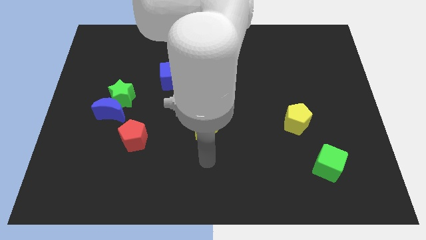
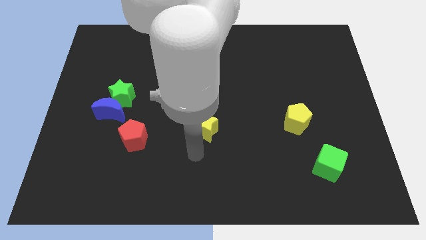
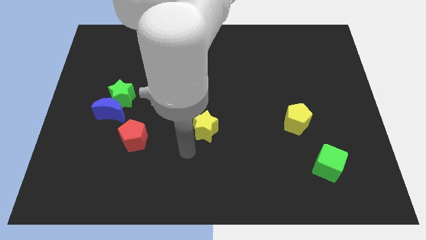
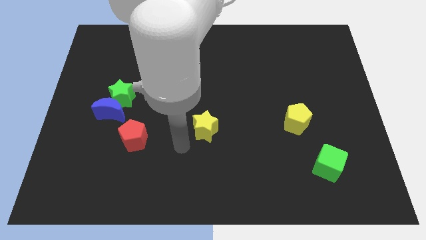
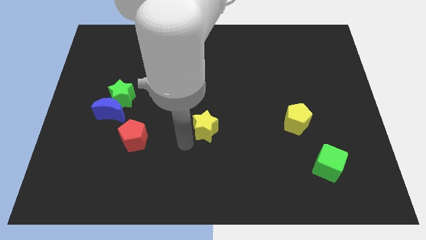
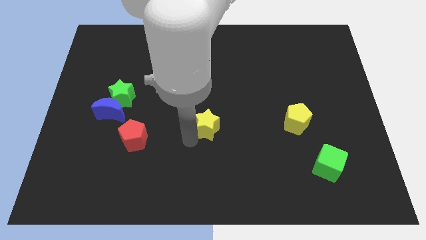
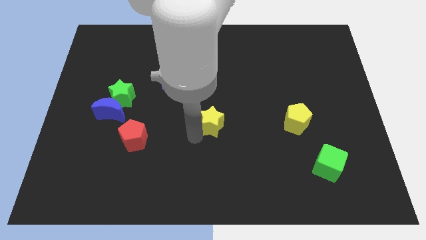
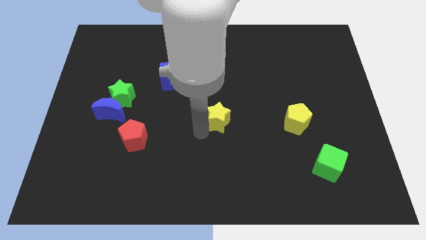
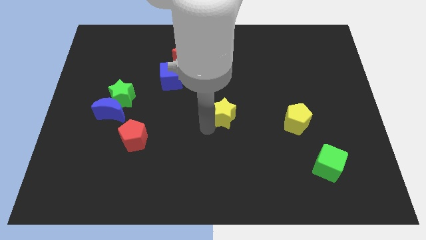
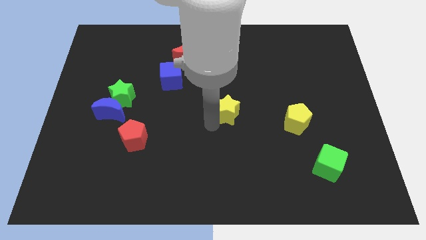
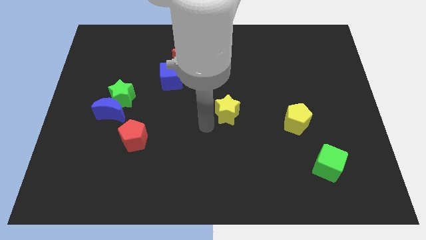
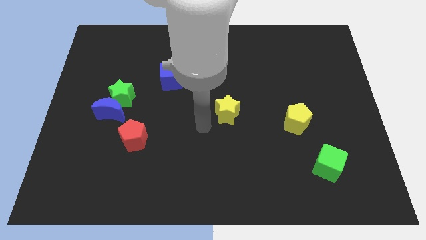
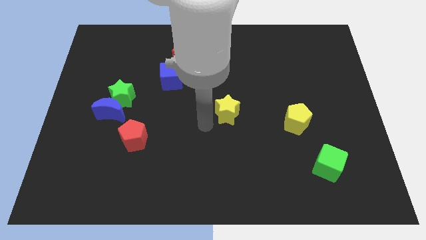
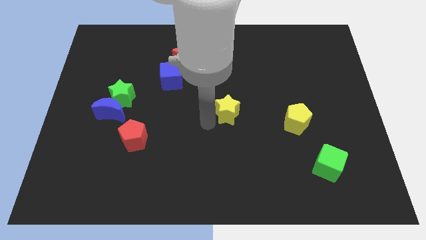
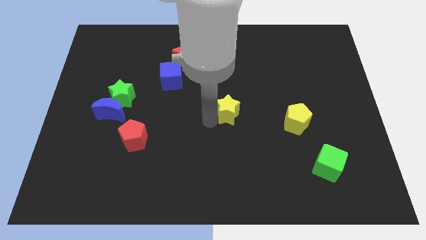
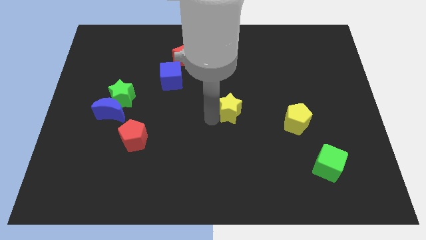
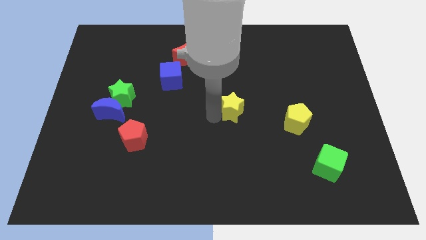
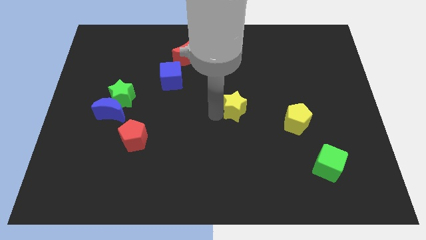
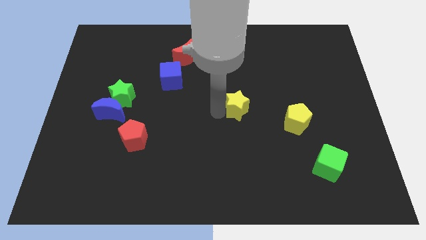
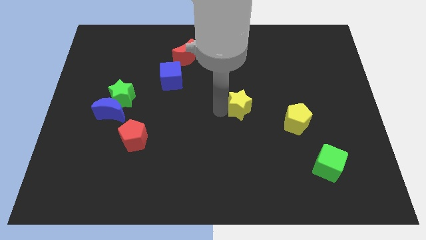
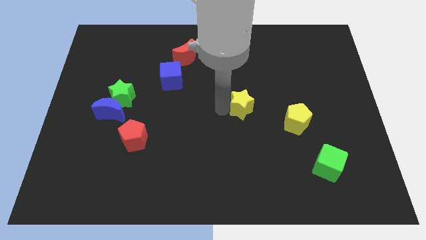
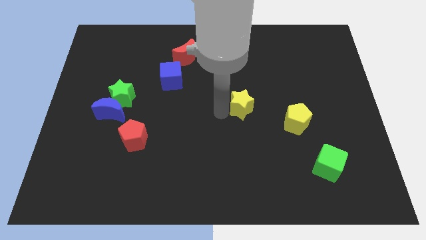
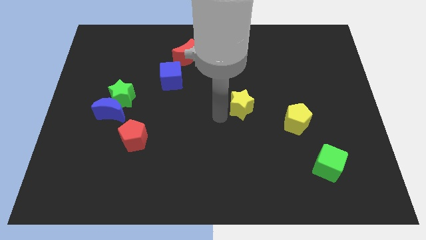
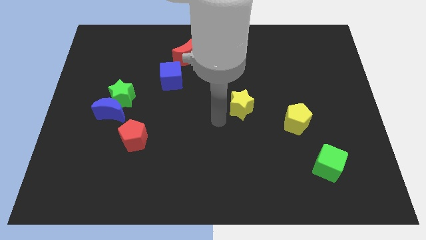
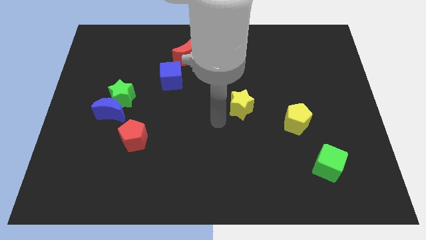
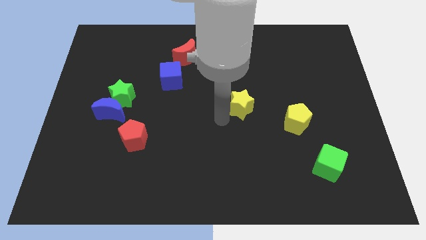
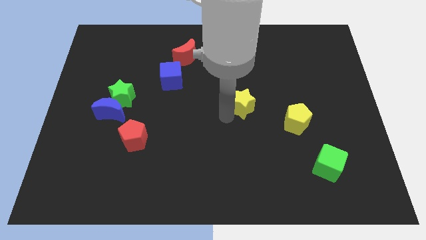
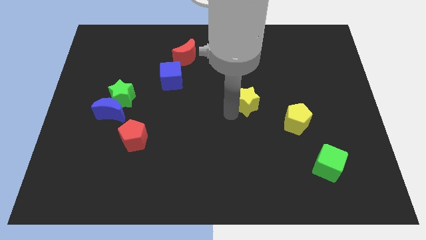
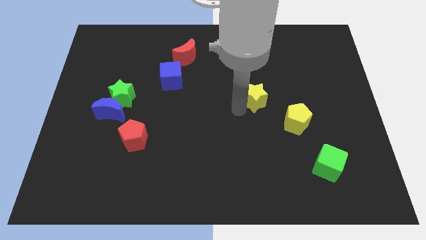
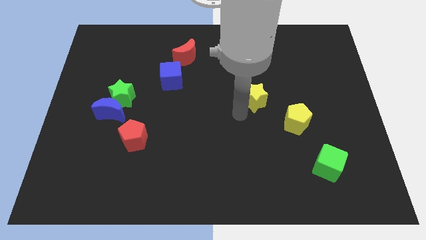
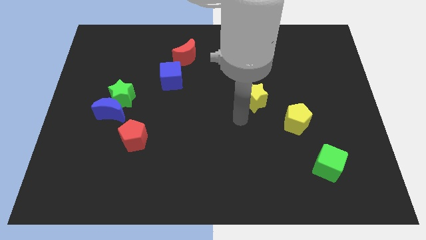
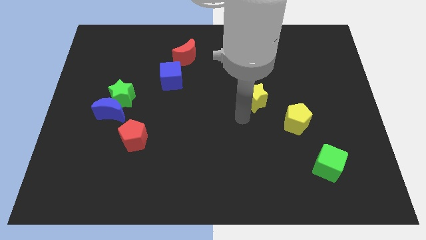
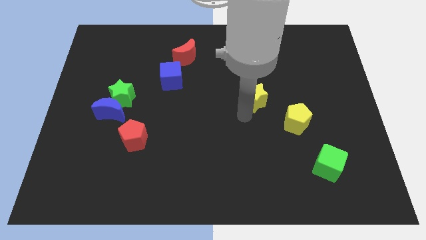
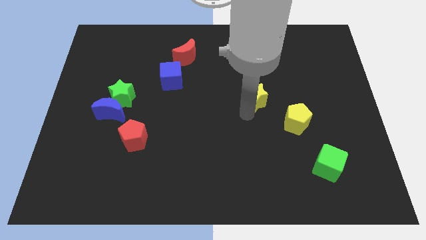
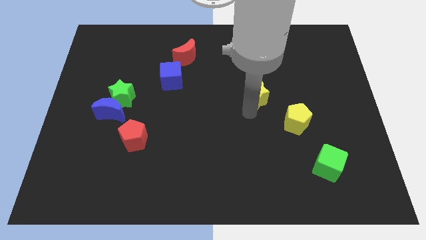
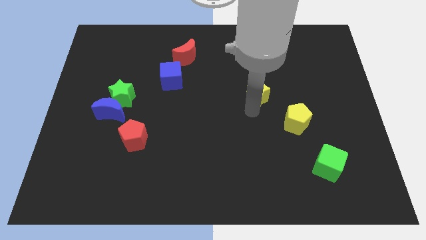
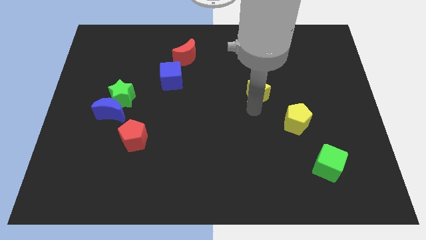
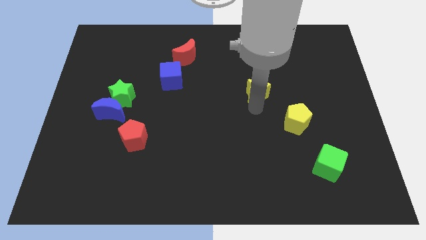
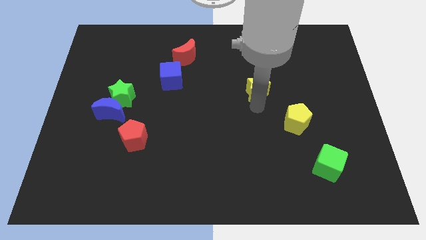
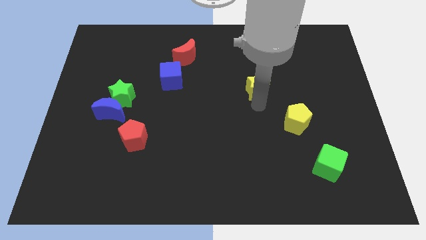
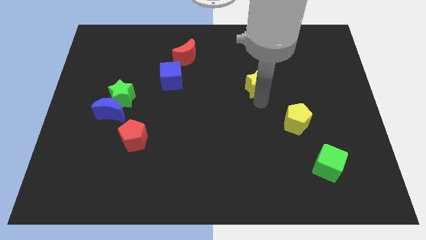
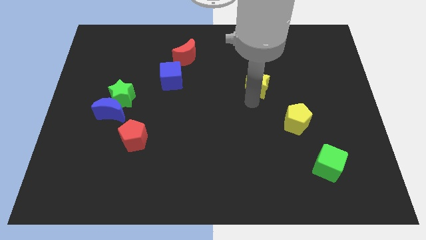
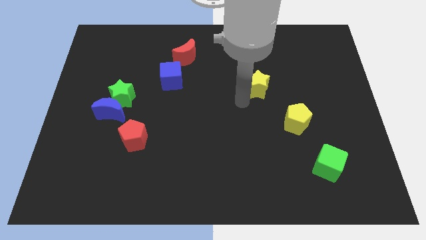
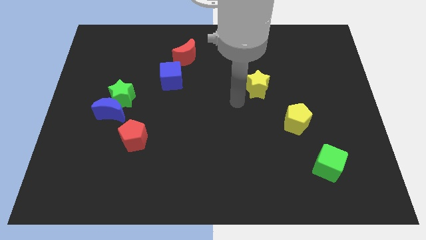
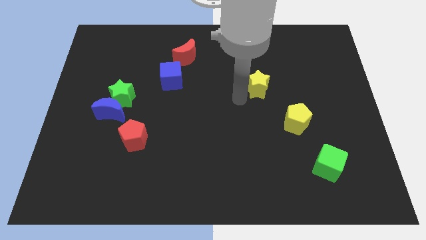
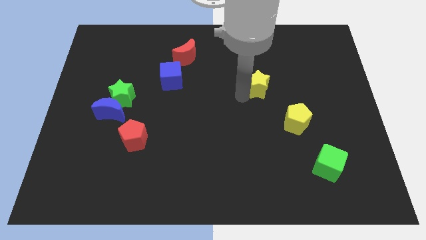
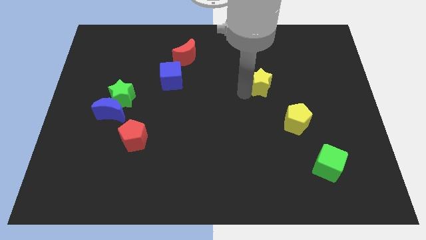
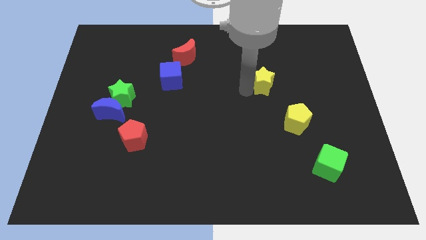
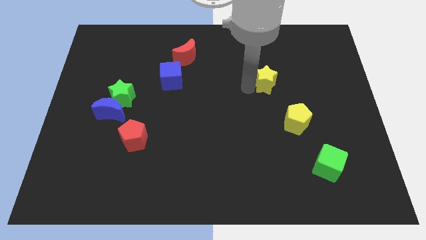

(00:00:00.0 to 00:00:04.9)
move the yellow star upwards and right diagonally

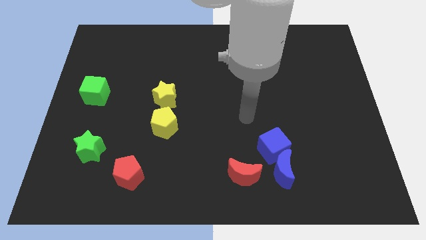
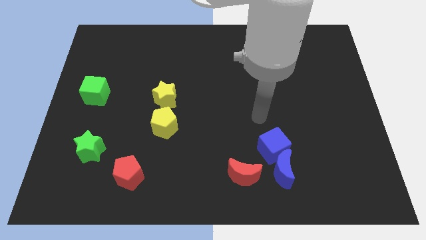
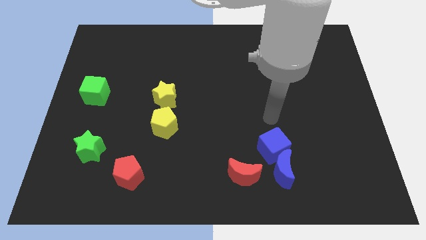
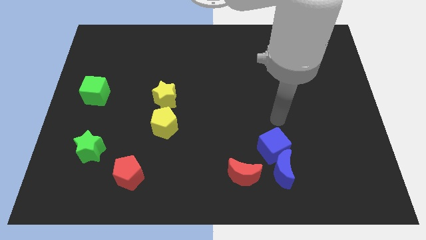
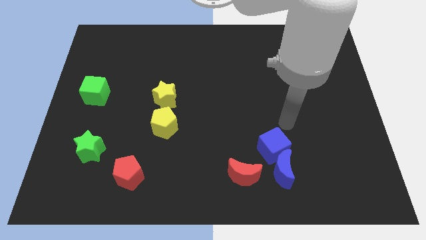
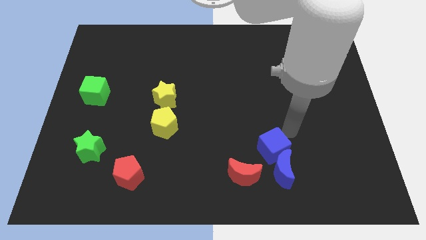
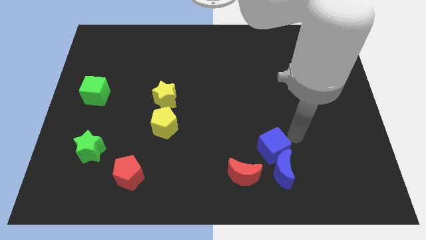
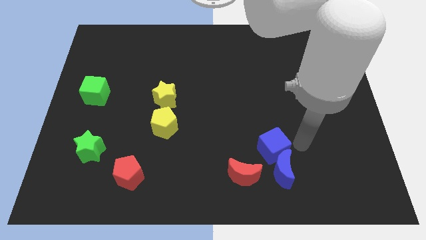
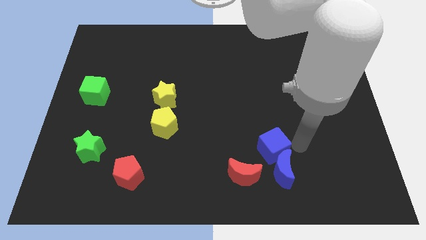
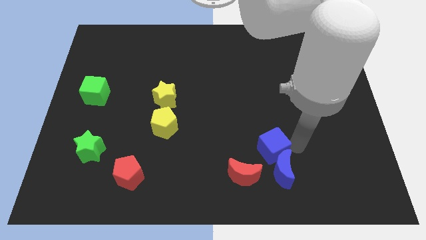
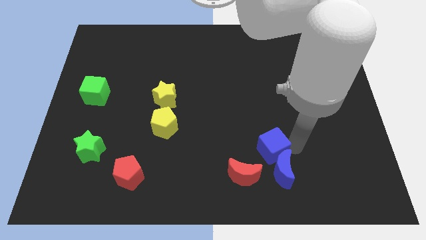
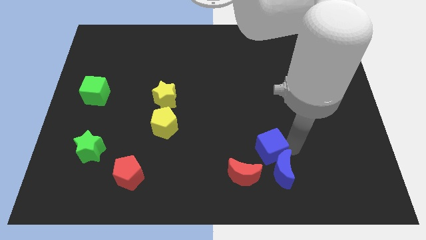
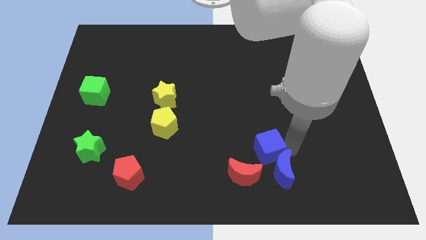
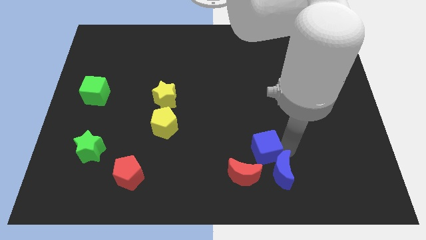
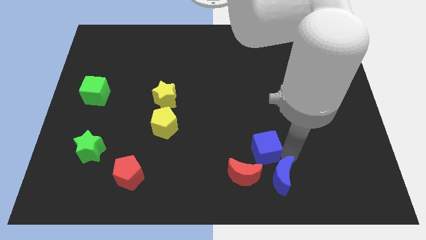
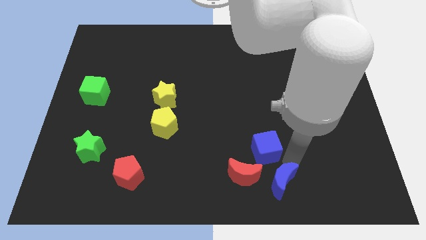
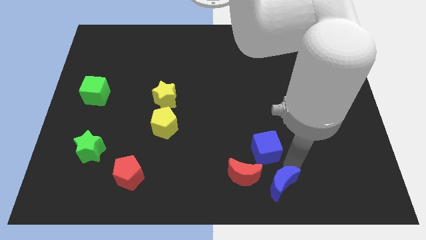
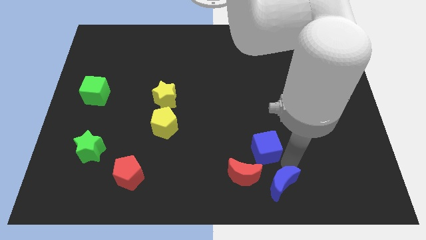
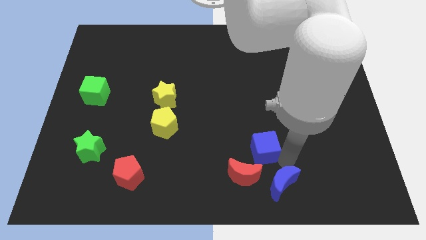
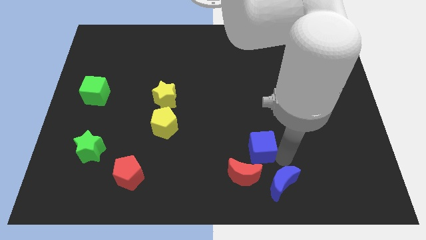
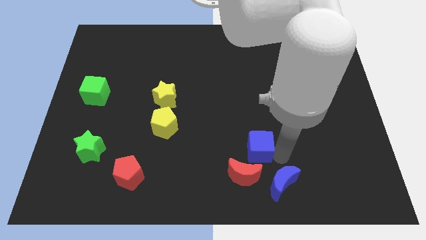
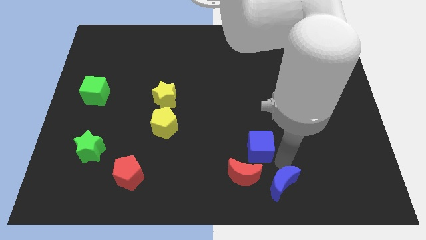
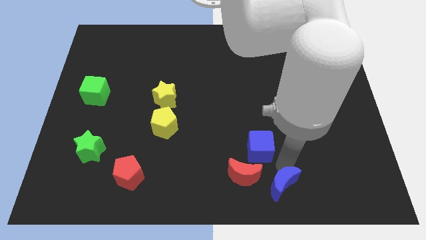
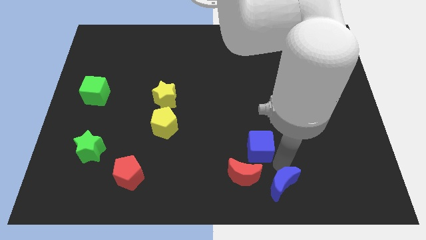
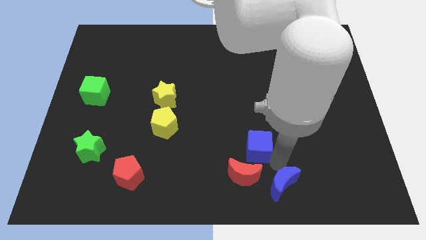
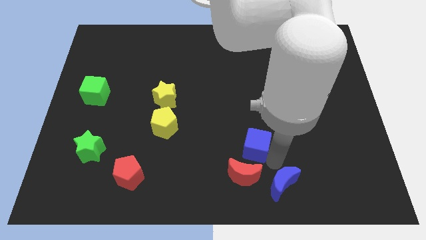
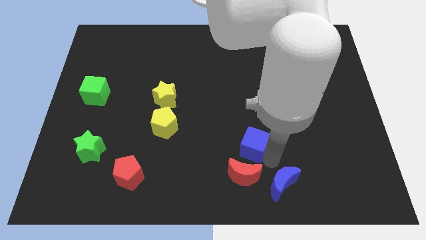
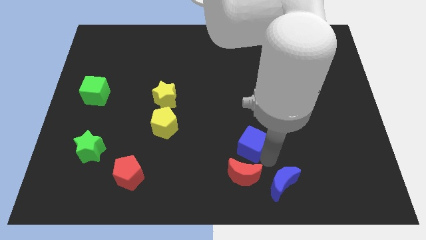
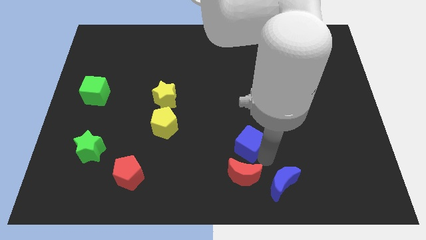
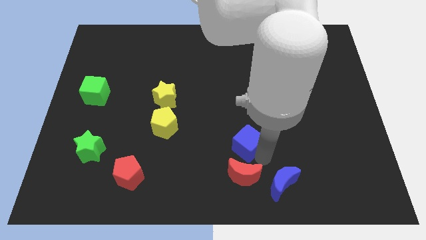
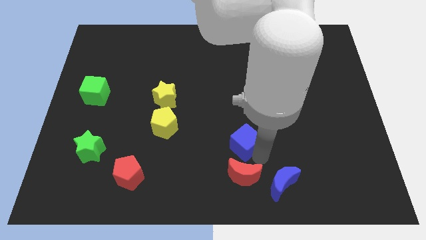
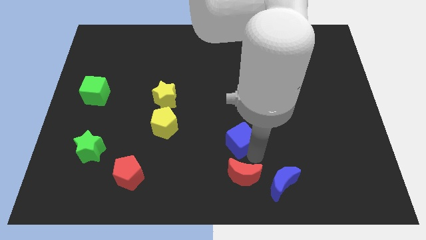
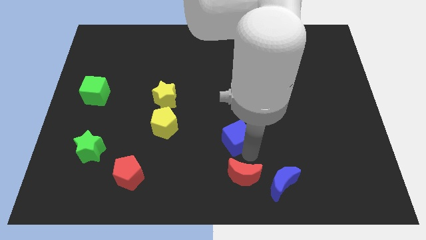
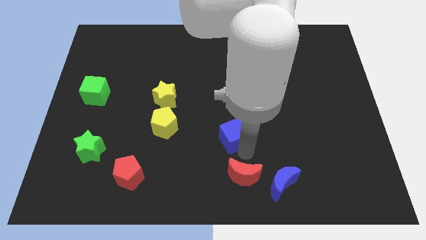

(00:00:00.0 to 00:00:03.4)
slightly move the blue cube diagonally upwards and left
